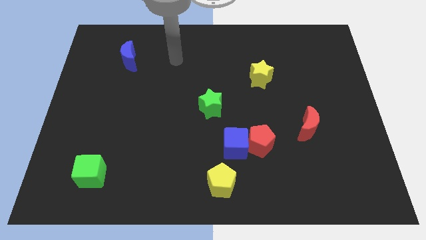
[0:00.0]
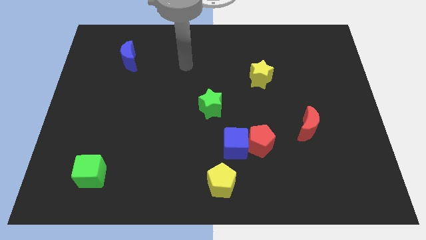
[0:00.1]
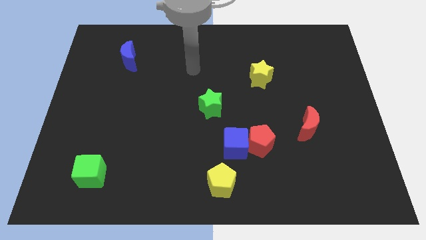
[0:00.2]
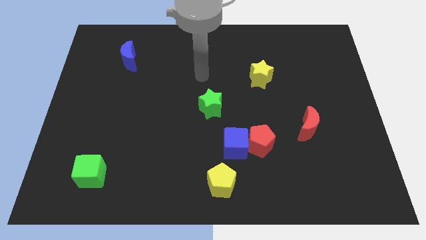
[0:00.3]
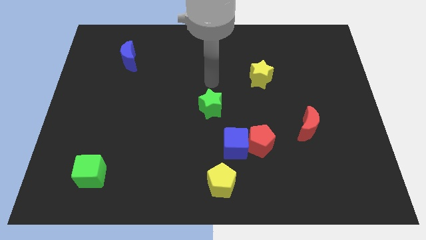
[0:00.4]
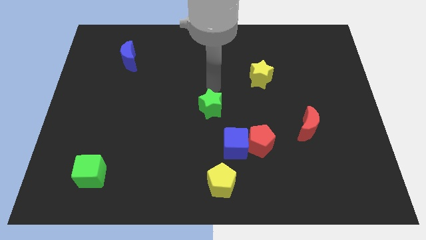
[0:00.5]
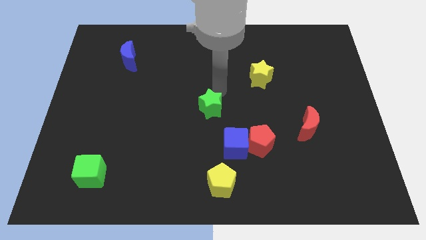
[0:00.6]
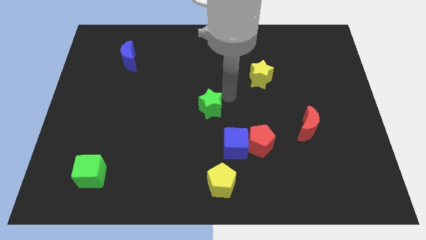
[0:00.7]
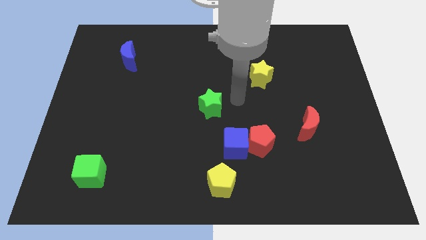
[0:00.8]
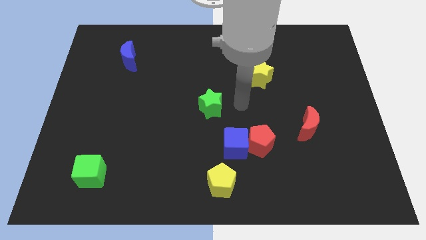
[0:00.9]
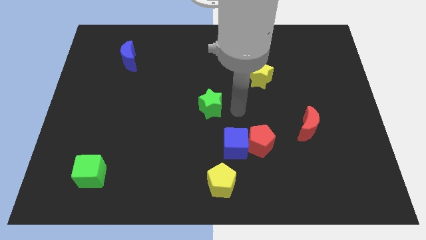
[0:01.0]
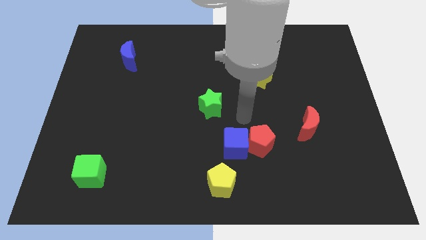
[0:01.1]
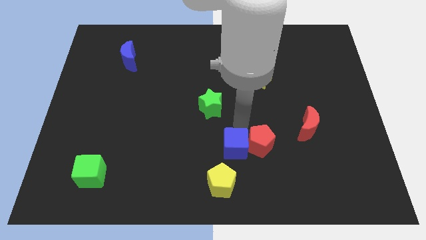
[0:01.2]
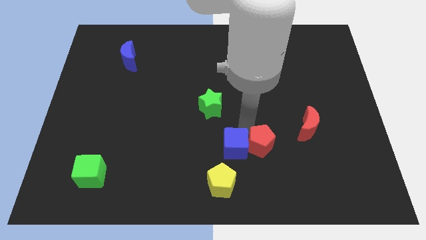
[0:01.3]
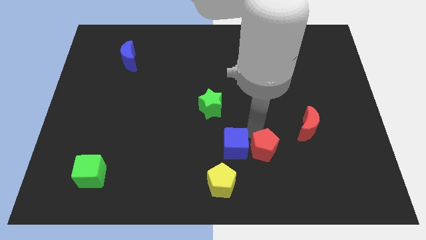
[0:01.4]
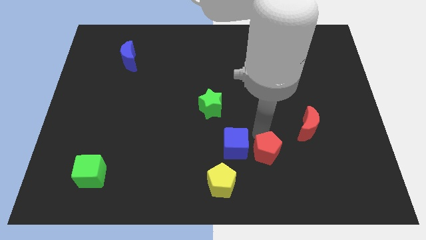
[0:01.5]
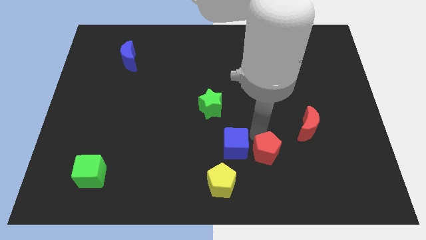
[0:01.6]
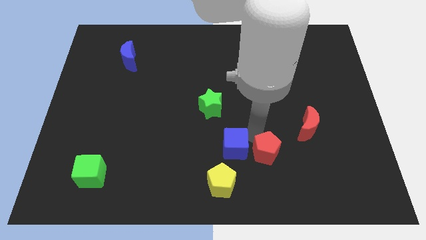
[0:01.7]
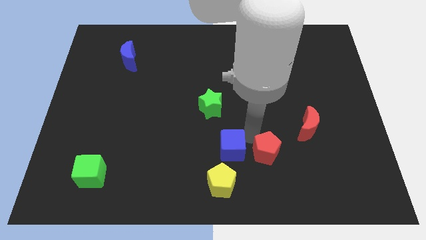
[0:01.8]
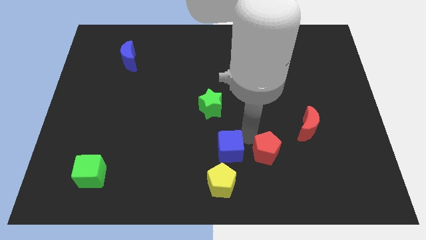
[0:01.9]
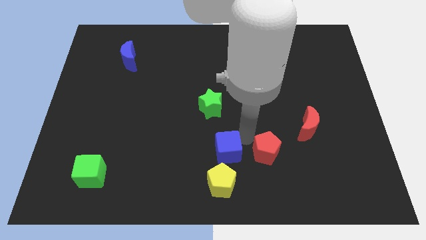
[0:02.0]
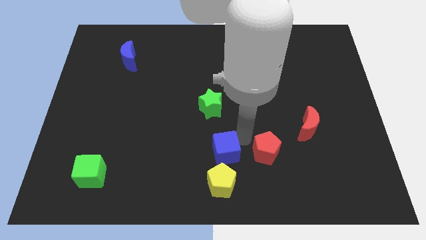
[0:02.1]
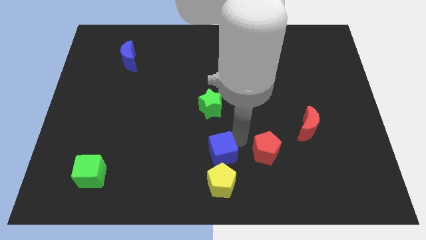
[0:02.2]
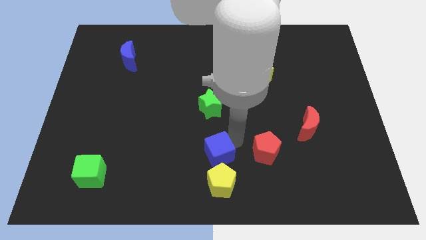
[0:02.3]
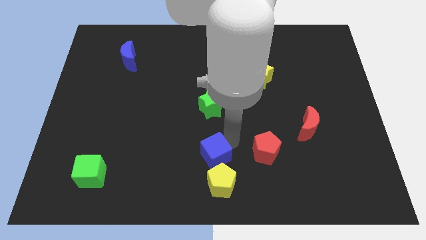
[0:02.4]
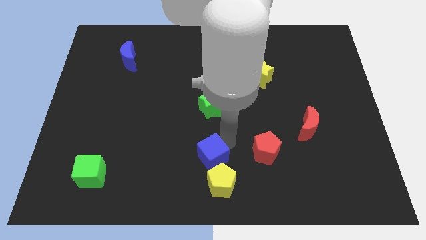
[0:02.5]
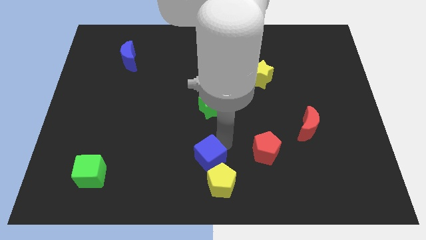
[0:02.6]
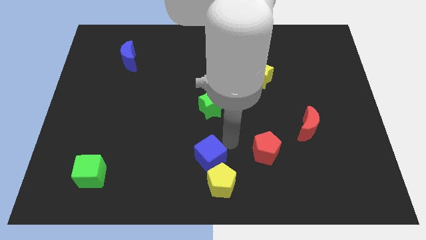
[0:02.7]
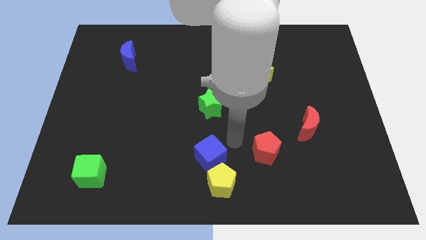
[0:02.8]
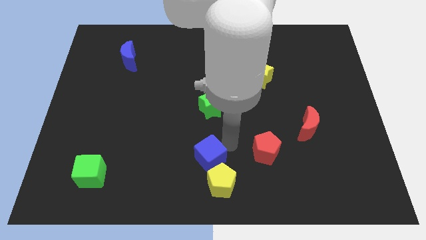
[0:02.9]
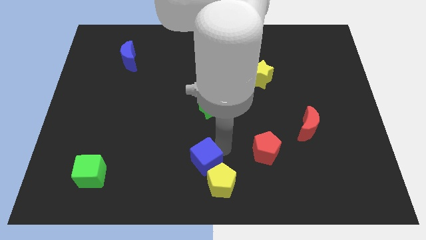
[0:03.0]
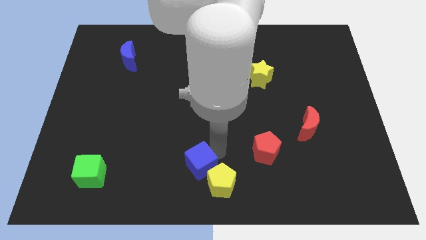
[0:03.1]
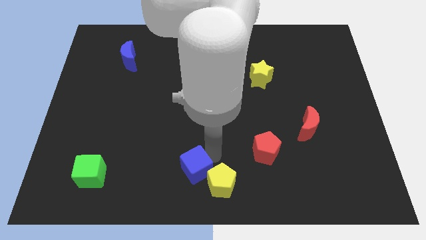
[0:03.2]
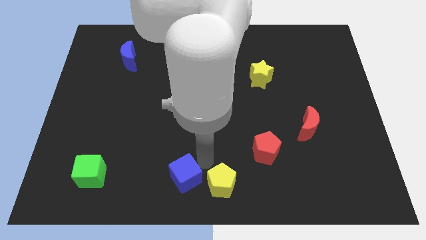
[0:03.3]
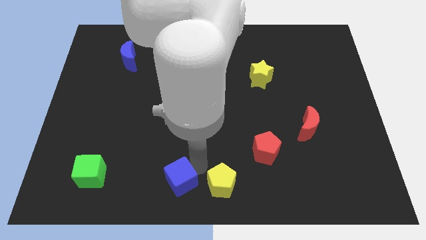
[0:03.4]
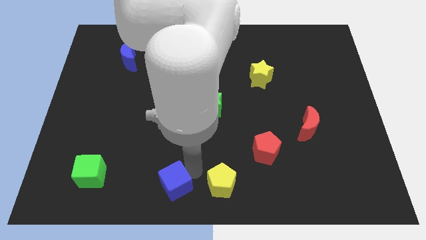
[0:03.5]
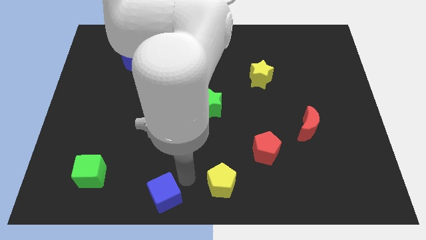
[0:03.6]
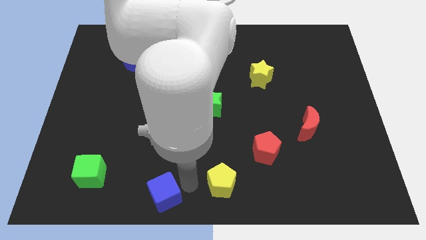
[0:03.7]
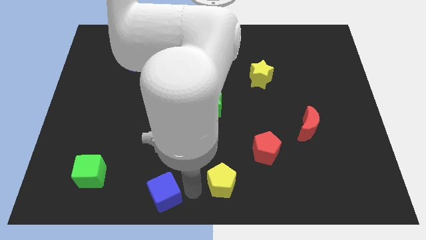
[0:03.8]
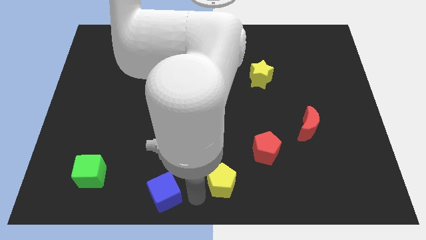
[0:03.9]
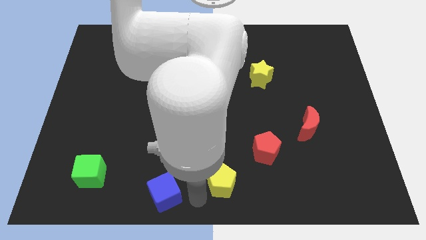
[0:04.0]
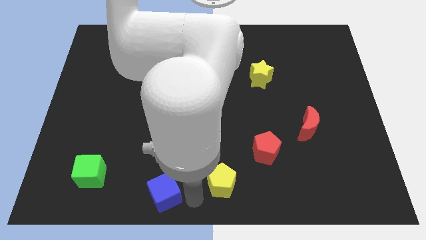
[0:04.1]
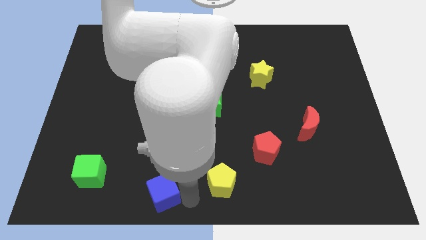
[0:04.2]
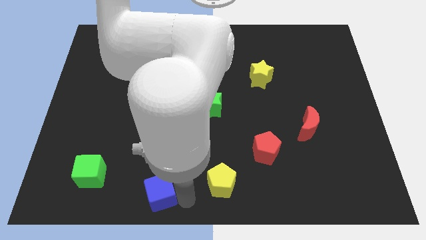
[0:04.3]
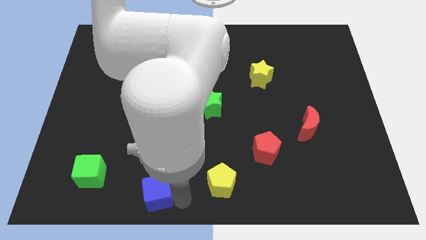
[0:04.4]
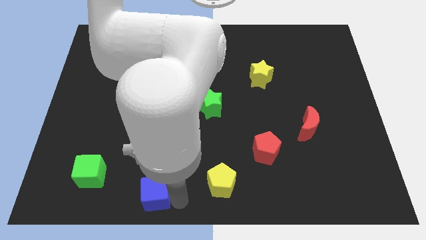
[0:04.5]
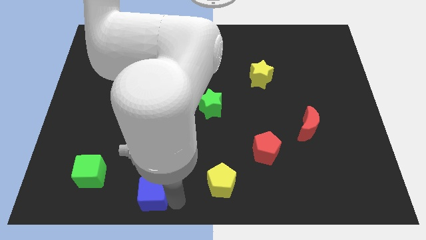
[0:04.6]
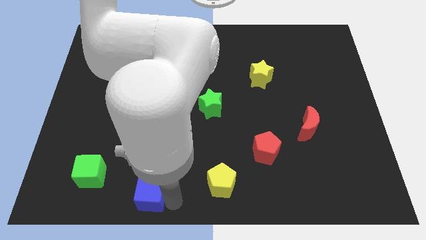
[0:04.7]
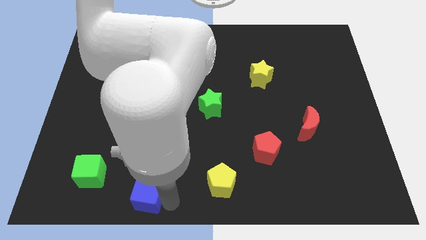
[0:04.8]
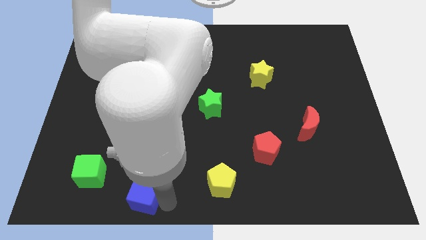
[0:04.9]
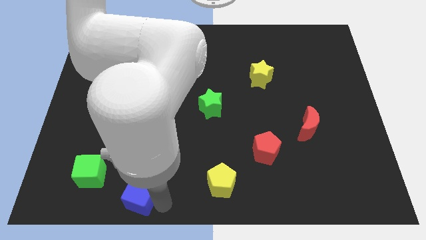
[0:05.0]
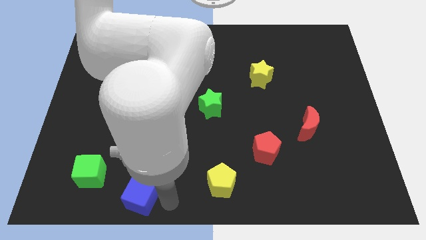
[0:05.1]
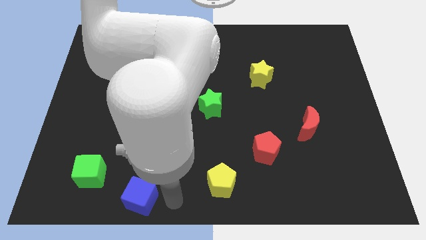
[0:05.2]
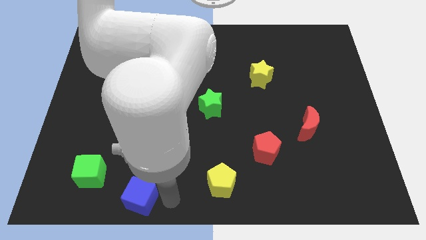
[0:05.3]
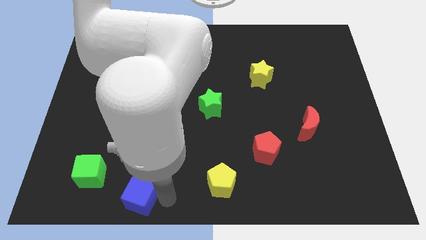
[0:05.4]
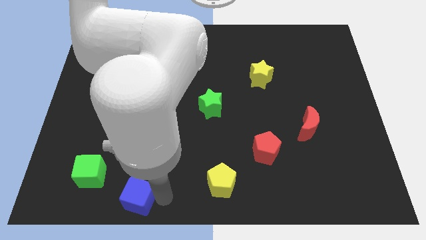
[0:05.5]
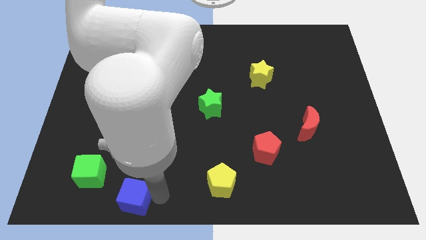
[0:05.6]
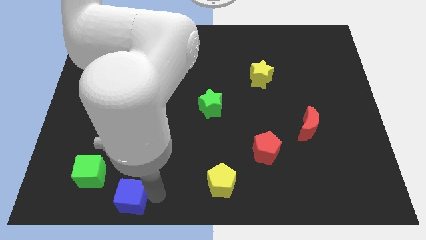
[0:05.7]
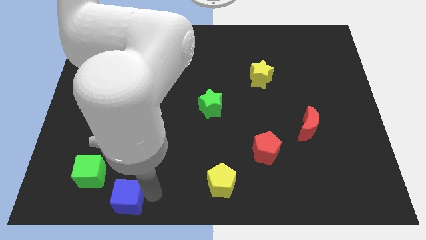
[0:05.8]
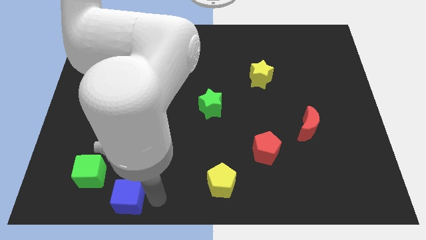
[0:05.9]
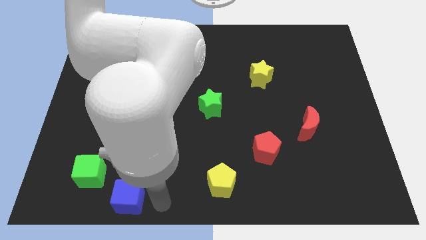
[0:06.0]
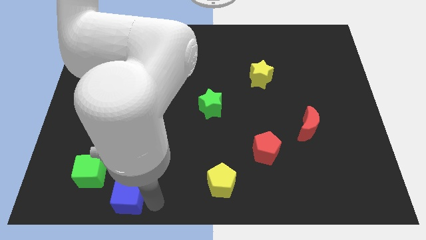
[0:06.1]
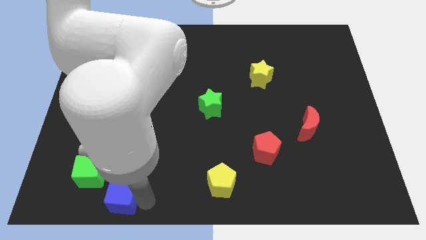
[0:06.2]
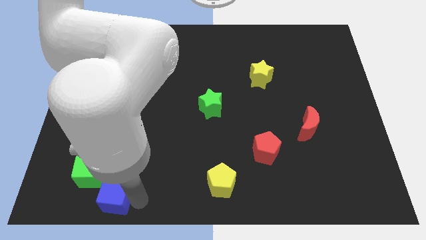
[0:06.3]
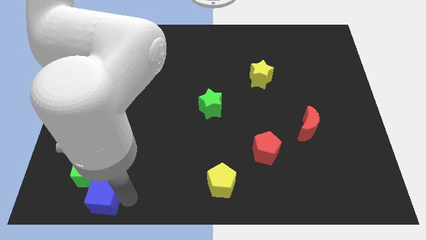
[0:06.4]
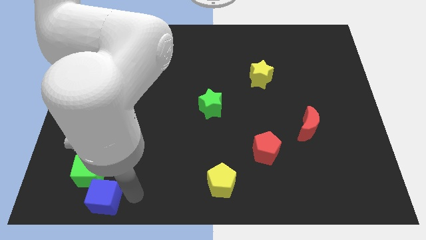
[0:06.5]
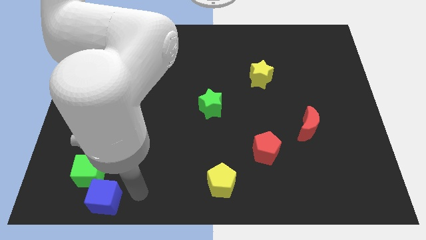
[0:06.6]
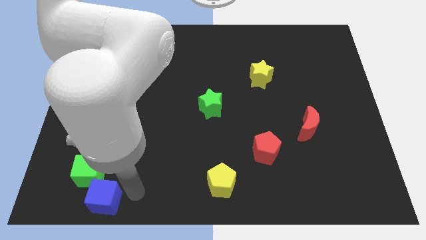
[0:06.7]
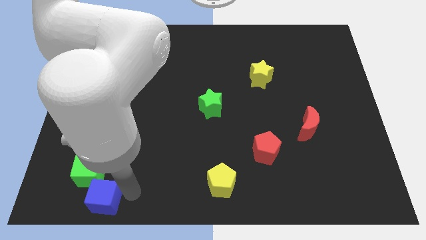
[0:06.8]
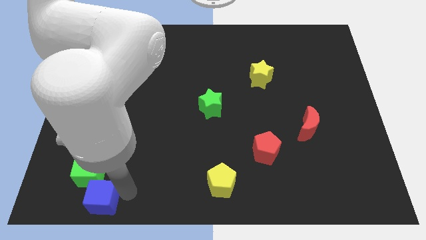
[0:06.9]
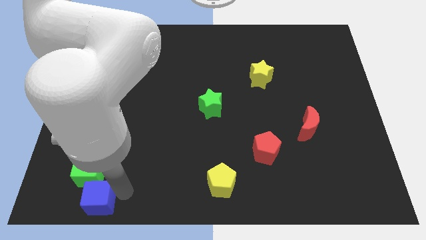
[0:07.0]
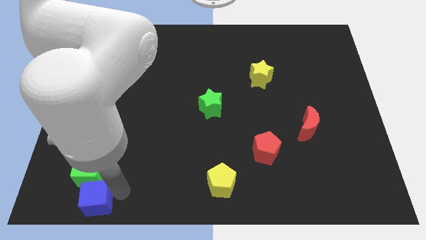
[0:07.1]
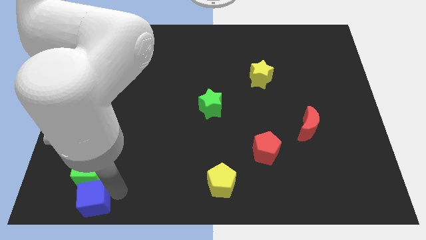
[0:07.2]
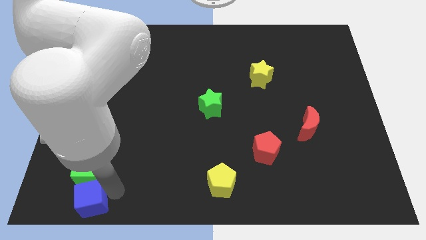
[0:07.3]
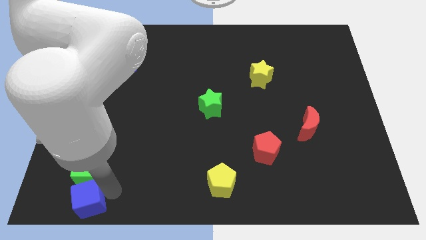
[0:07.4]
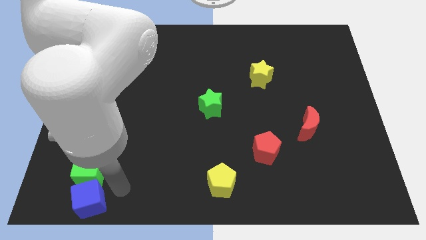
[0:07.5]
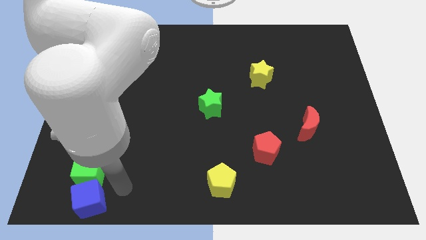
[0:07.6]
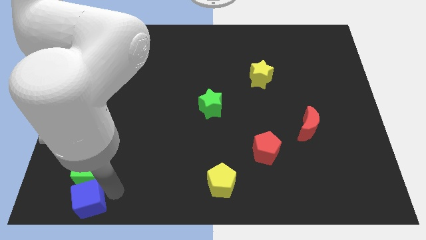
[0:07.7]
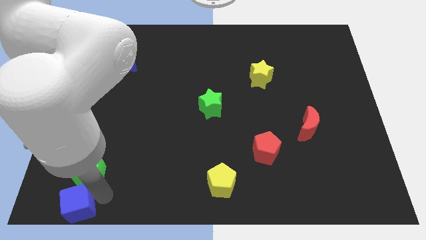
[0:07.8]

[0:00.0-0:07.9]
move the blue cube to the bottom left of the board

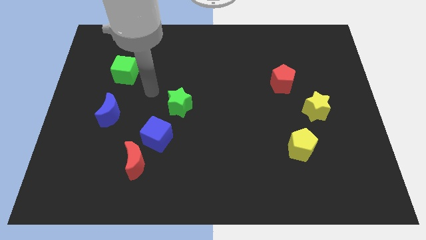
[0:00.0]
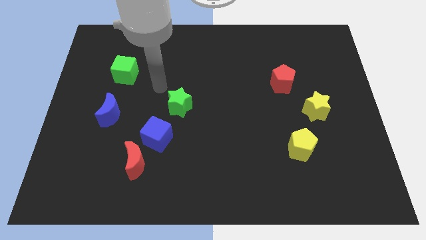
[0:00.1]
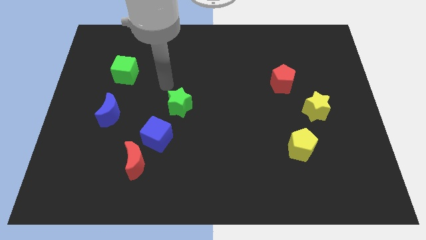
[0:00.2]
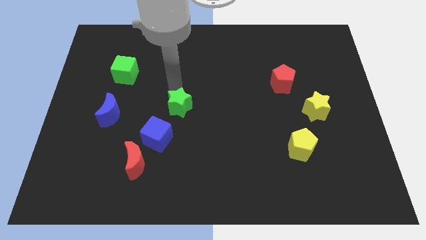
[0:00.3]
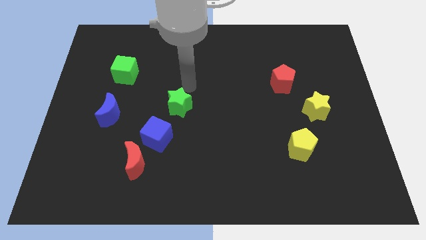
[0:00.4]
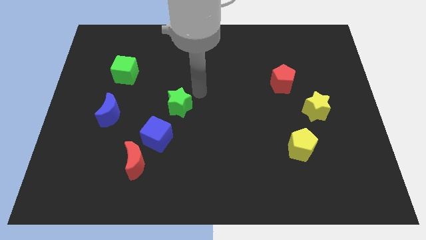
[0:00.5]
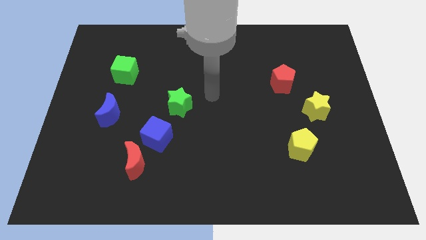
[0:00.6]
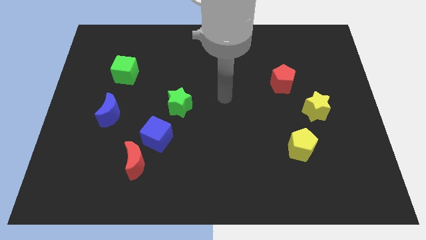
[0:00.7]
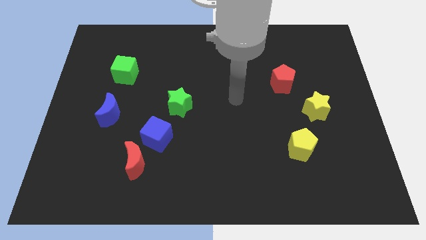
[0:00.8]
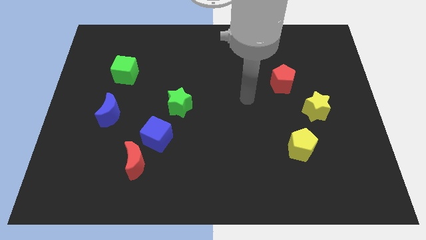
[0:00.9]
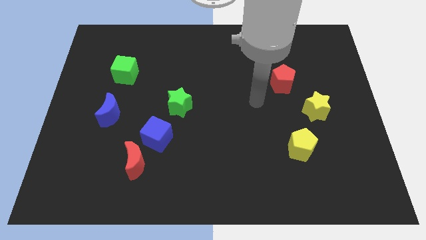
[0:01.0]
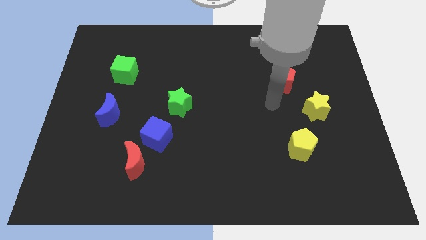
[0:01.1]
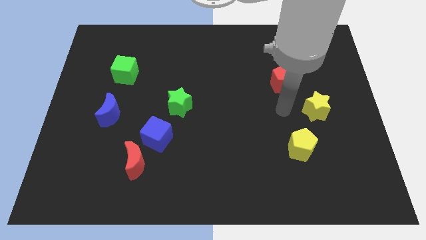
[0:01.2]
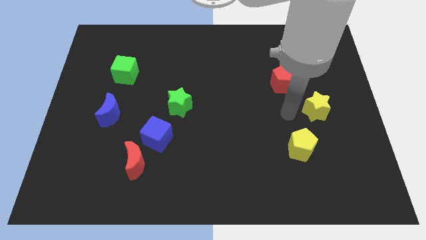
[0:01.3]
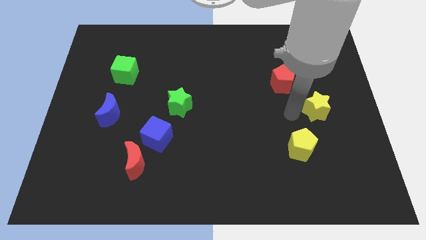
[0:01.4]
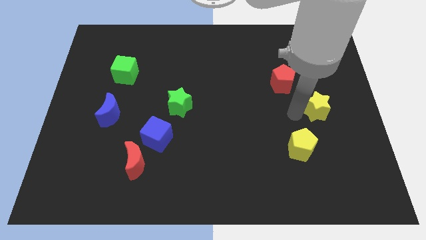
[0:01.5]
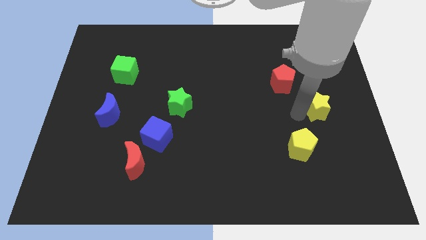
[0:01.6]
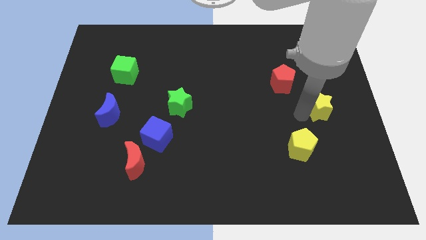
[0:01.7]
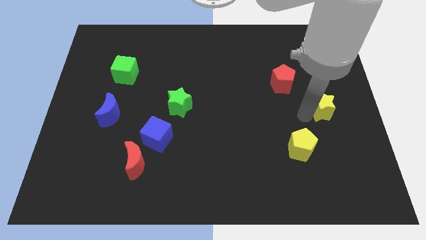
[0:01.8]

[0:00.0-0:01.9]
slide the yellow star to the center right
